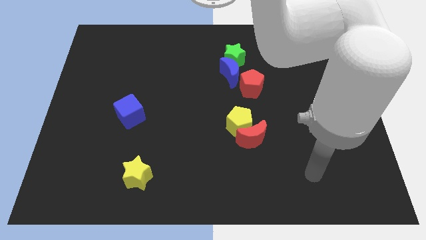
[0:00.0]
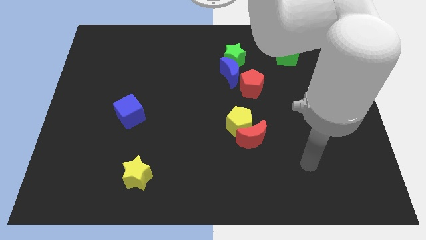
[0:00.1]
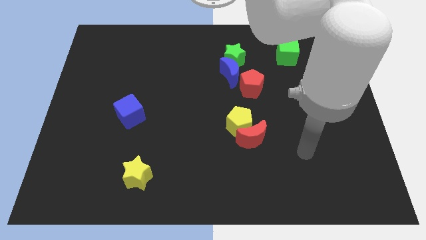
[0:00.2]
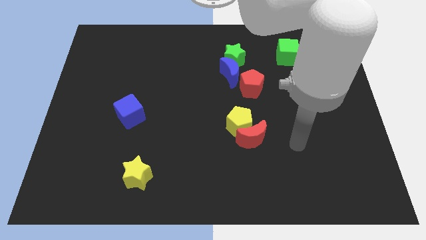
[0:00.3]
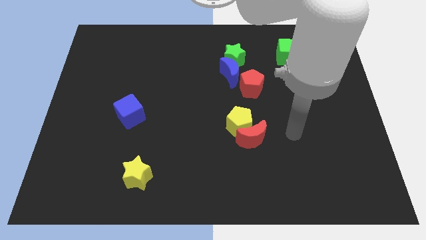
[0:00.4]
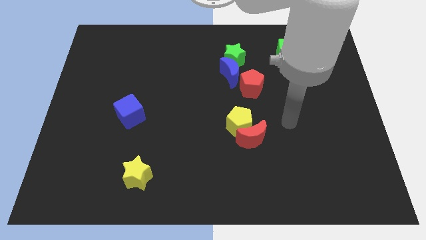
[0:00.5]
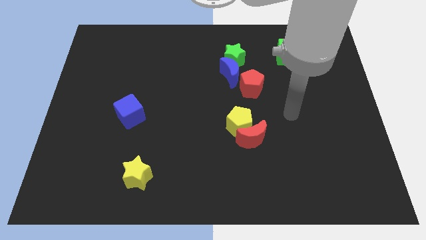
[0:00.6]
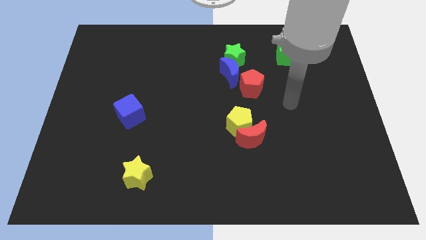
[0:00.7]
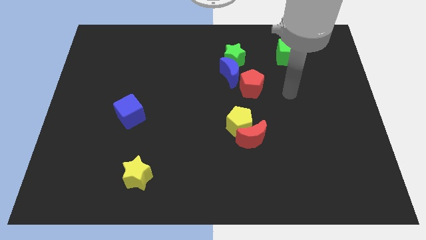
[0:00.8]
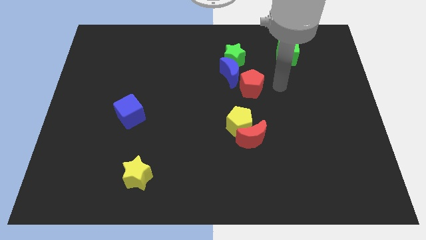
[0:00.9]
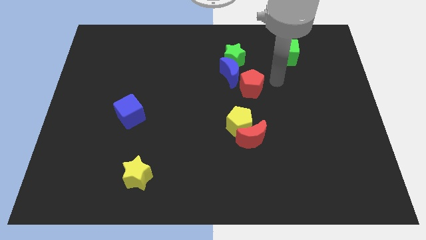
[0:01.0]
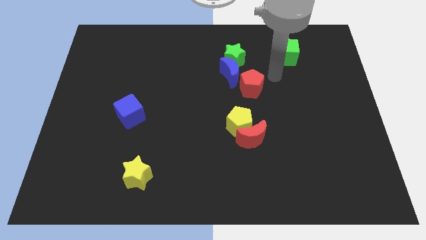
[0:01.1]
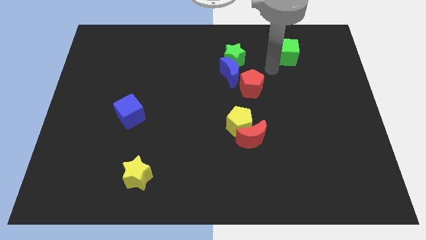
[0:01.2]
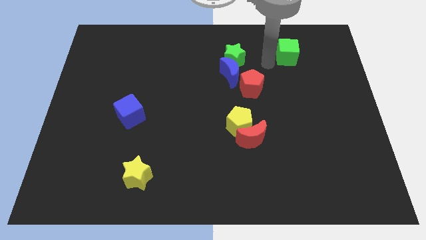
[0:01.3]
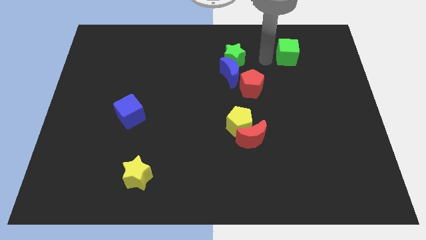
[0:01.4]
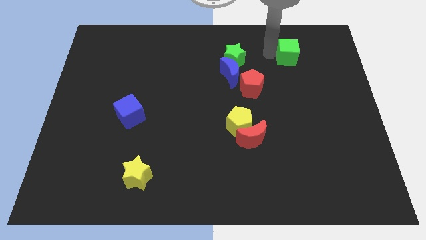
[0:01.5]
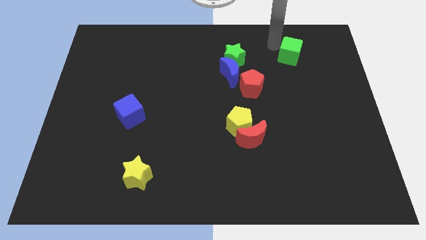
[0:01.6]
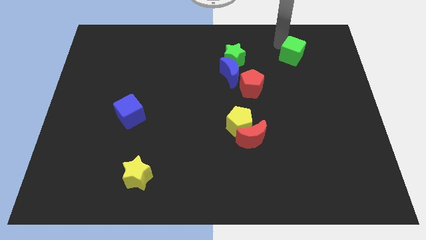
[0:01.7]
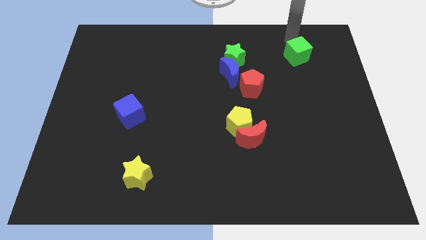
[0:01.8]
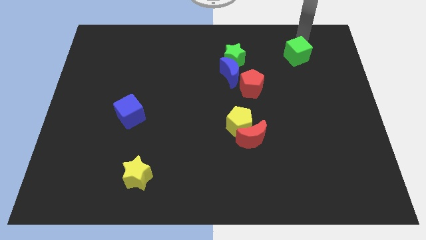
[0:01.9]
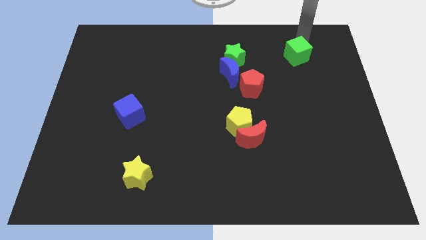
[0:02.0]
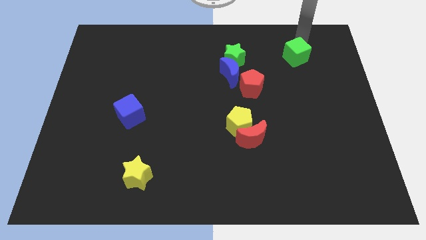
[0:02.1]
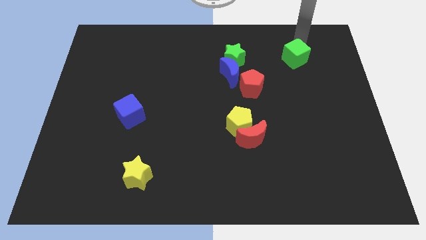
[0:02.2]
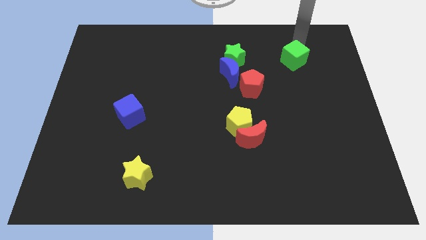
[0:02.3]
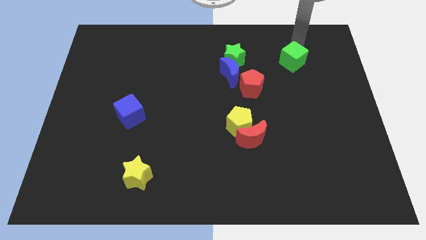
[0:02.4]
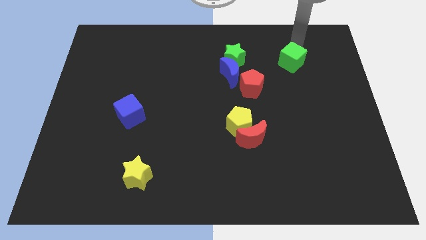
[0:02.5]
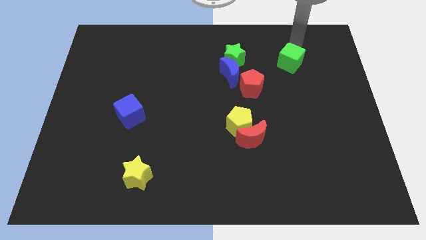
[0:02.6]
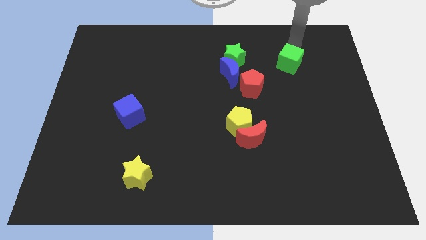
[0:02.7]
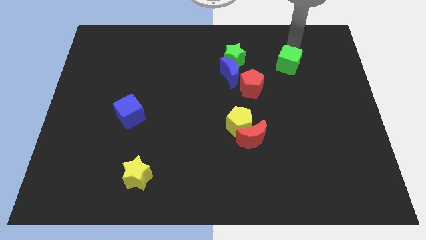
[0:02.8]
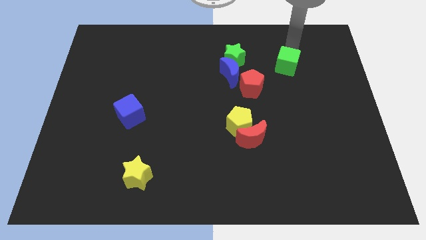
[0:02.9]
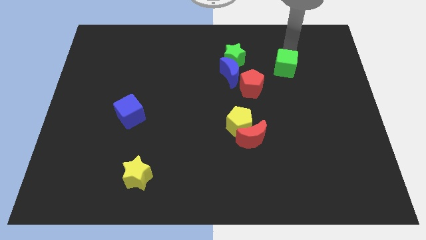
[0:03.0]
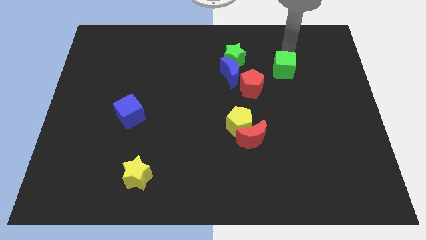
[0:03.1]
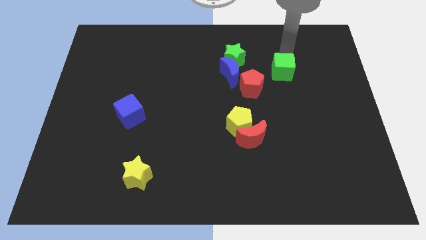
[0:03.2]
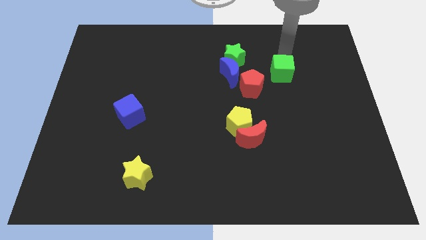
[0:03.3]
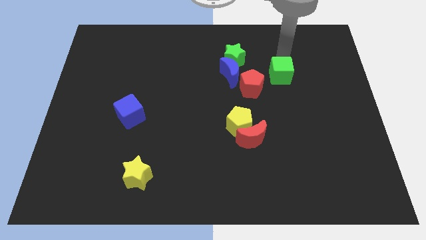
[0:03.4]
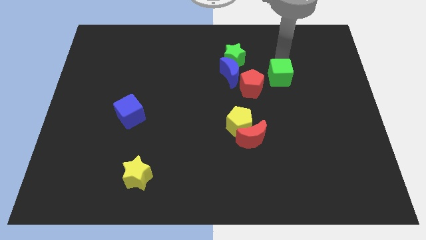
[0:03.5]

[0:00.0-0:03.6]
move the green cube a little bit down

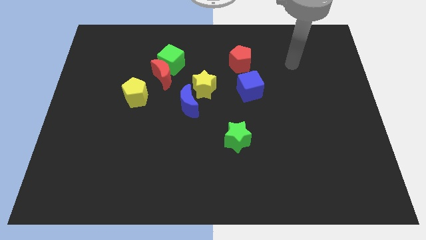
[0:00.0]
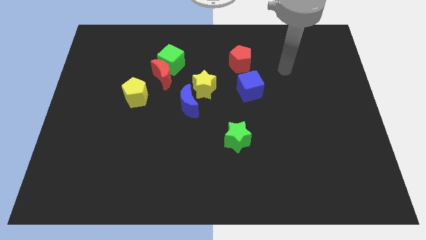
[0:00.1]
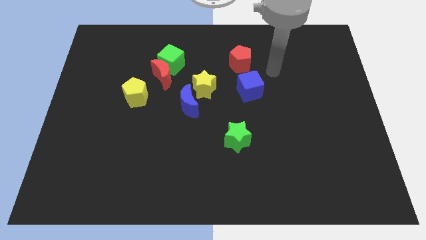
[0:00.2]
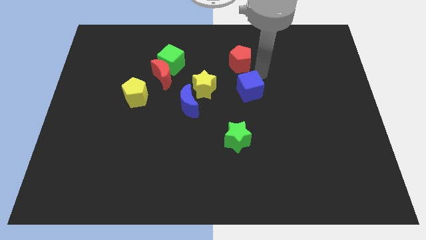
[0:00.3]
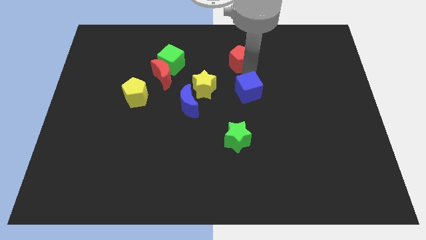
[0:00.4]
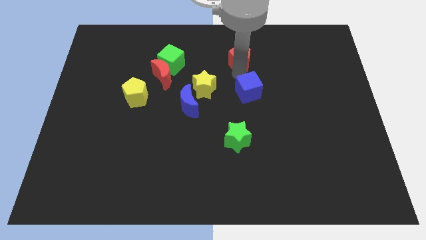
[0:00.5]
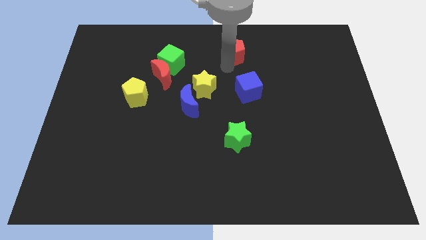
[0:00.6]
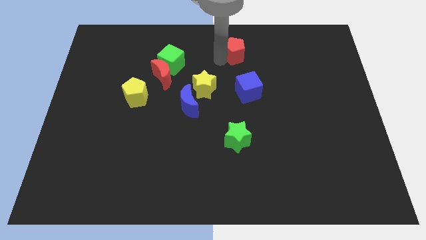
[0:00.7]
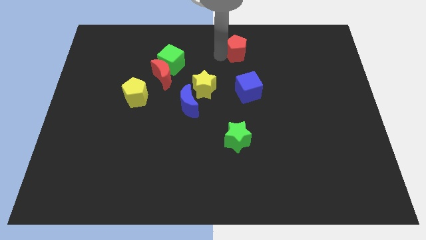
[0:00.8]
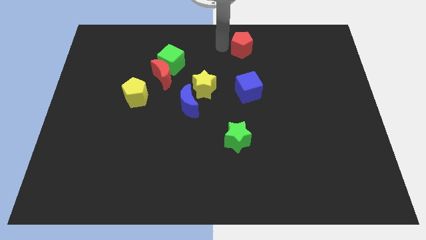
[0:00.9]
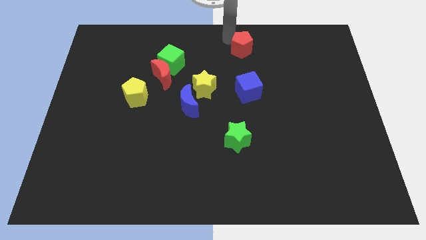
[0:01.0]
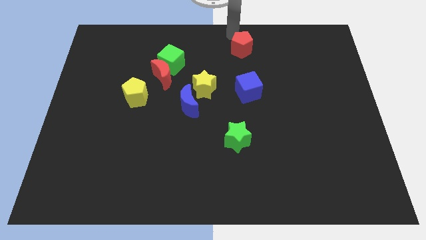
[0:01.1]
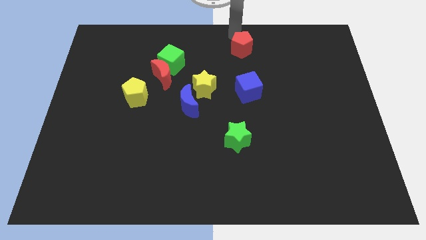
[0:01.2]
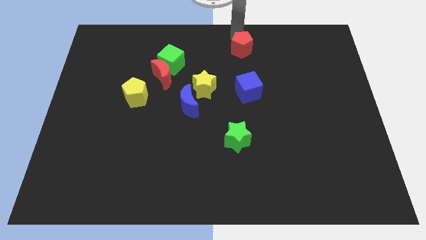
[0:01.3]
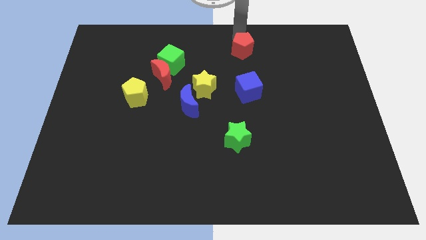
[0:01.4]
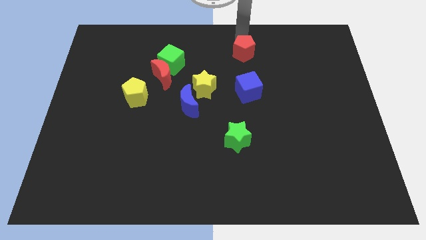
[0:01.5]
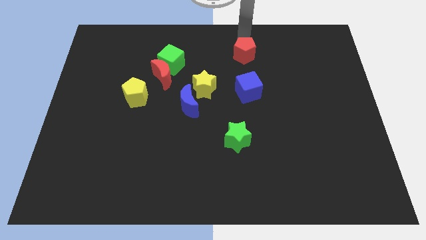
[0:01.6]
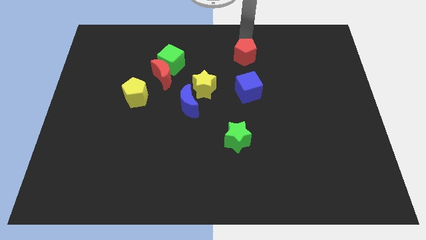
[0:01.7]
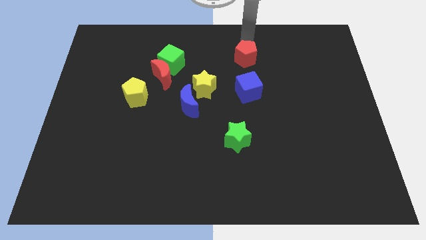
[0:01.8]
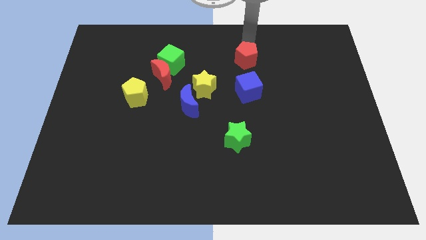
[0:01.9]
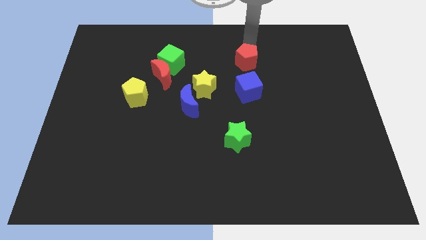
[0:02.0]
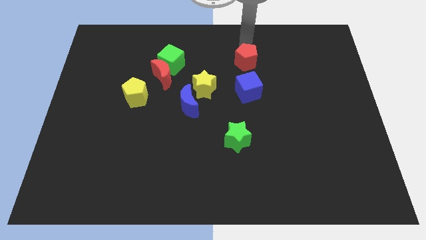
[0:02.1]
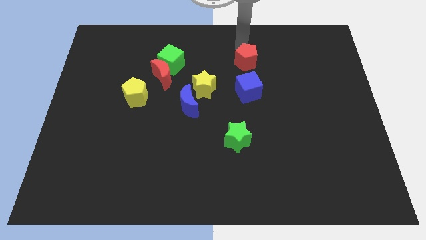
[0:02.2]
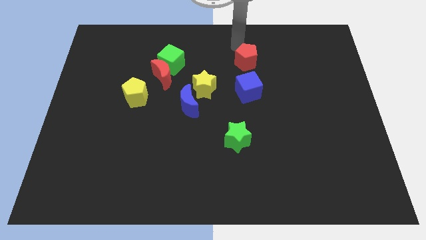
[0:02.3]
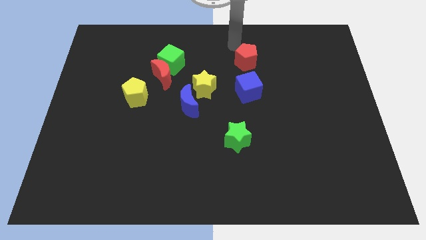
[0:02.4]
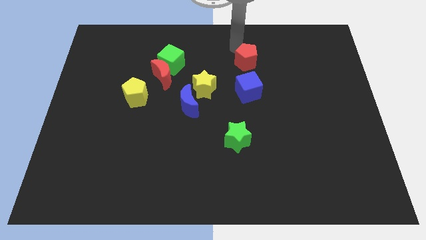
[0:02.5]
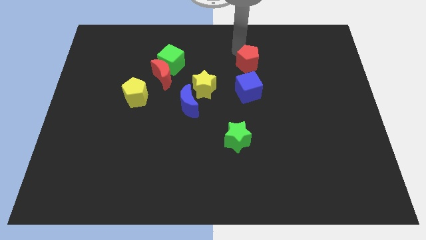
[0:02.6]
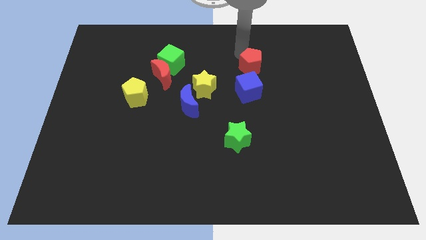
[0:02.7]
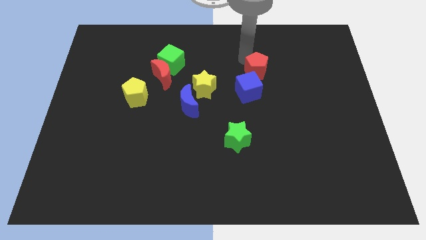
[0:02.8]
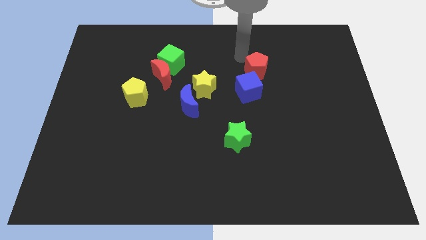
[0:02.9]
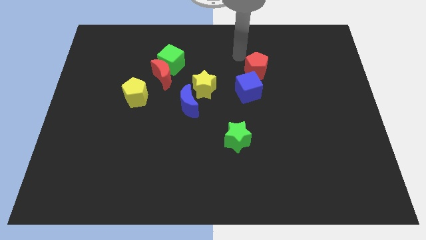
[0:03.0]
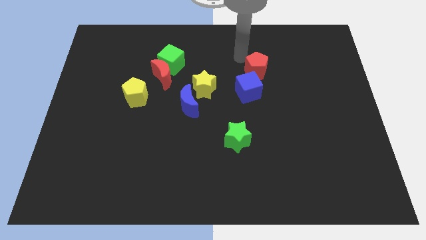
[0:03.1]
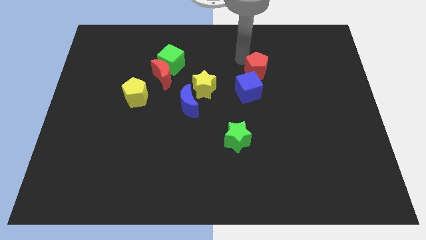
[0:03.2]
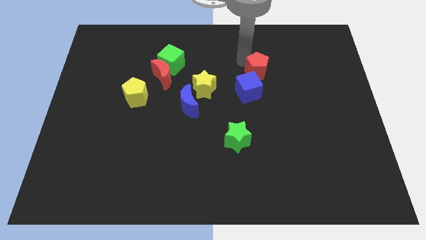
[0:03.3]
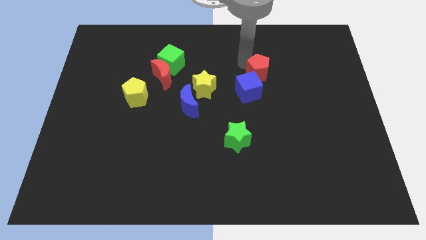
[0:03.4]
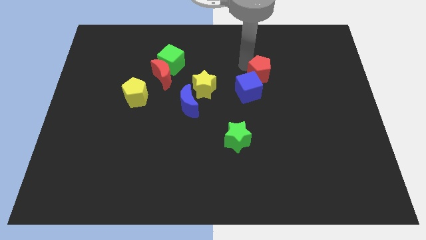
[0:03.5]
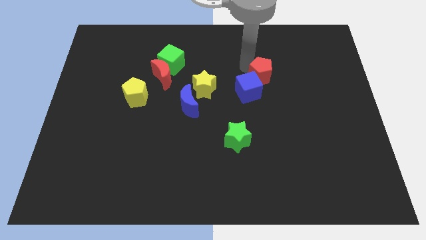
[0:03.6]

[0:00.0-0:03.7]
slightly move the red pentagon down and then right

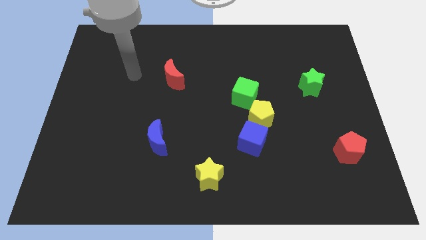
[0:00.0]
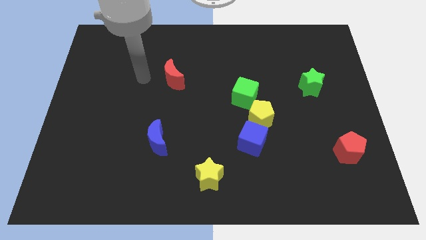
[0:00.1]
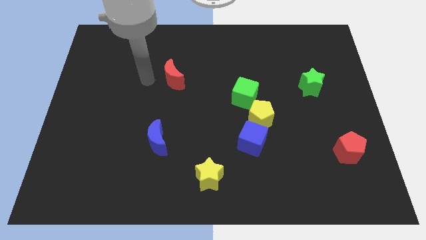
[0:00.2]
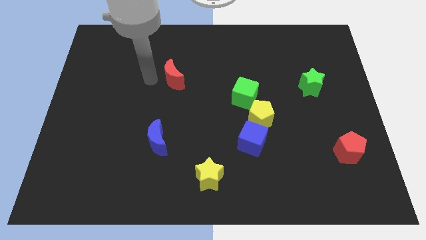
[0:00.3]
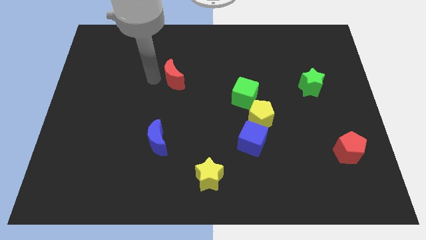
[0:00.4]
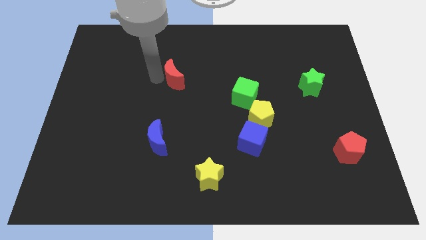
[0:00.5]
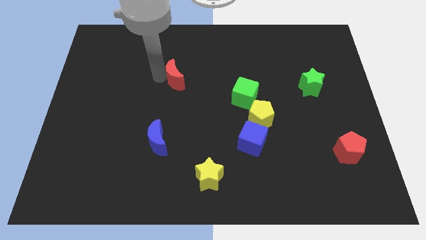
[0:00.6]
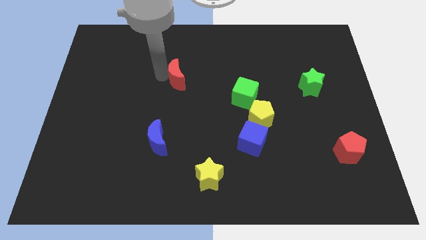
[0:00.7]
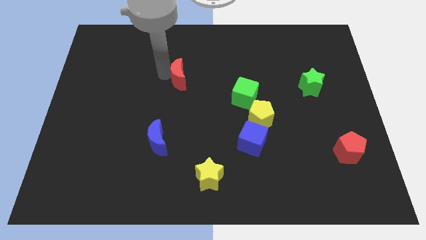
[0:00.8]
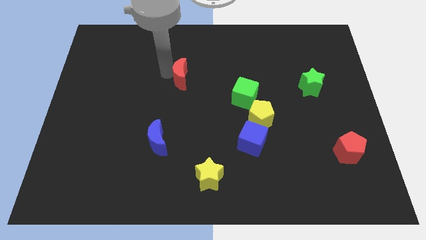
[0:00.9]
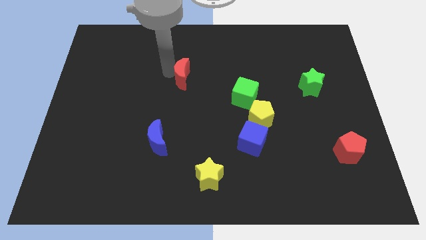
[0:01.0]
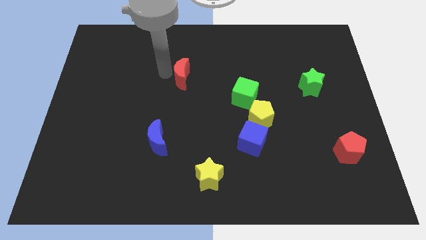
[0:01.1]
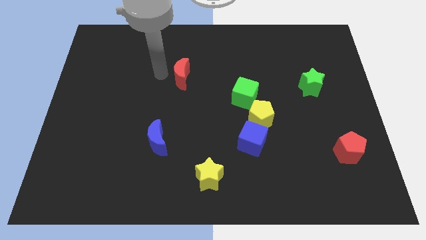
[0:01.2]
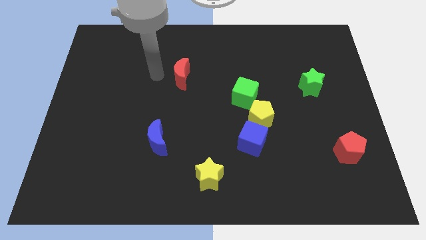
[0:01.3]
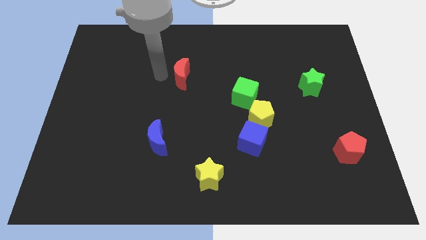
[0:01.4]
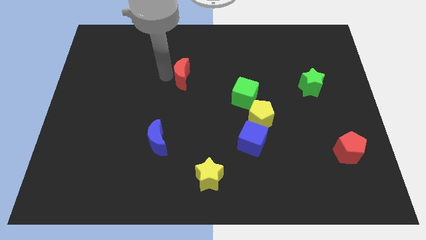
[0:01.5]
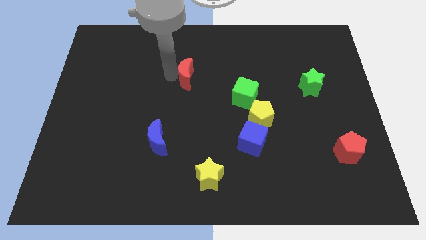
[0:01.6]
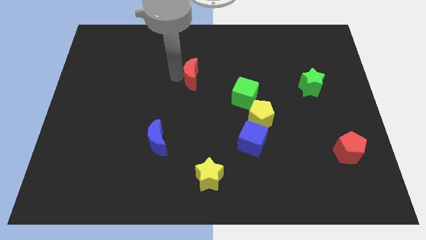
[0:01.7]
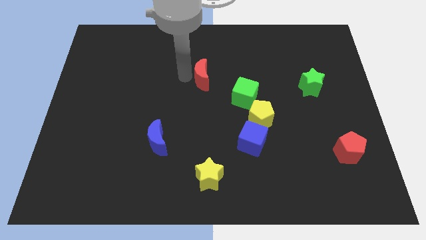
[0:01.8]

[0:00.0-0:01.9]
slightly move the red moon right
